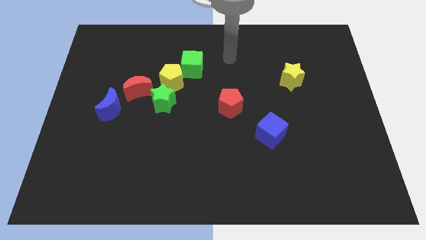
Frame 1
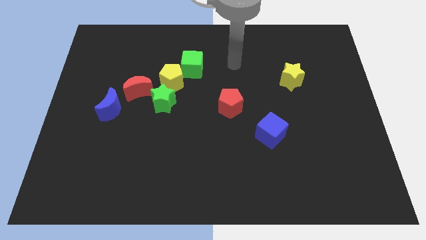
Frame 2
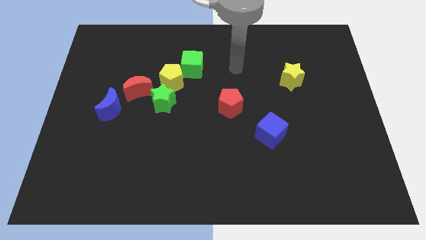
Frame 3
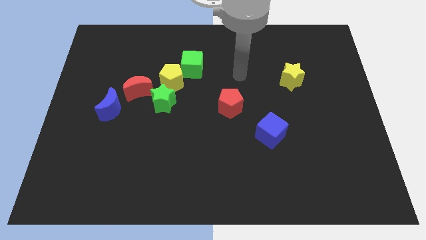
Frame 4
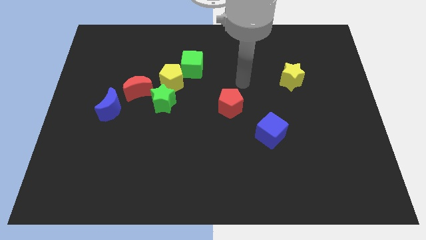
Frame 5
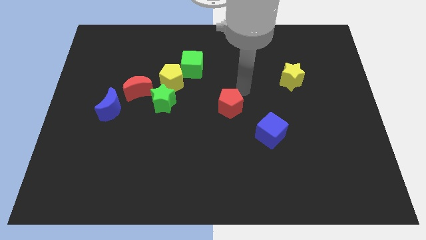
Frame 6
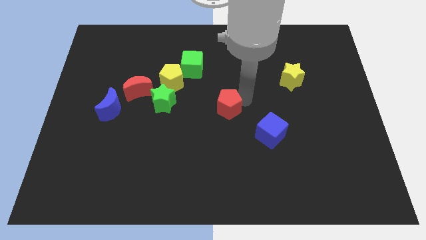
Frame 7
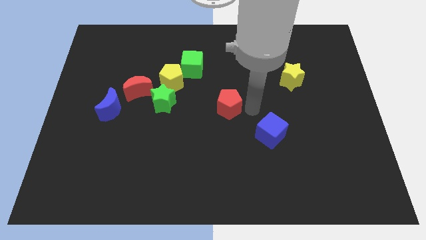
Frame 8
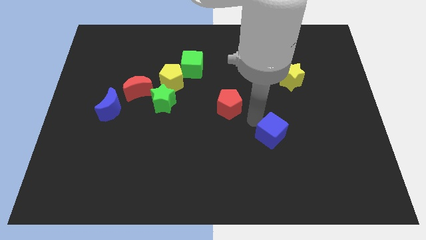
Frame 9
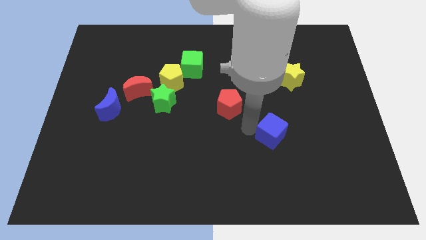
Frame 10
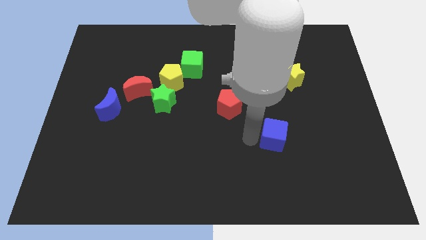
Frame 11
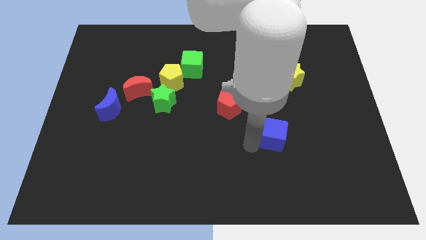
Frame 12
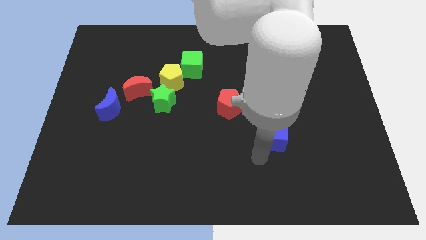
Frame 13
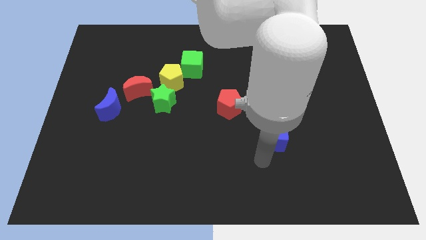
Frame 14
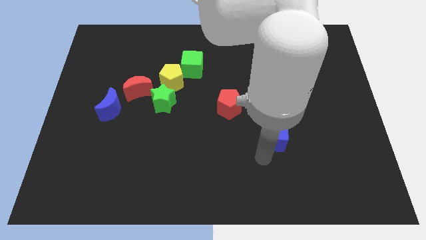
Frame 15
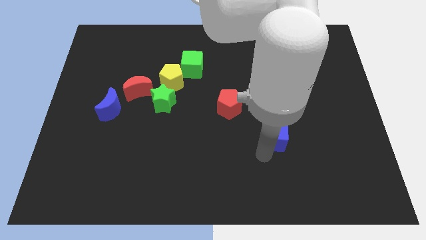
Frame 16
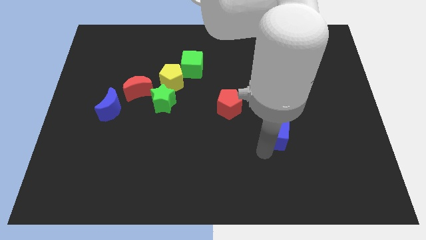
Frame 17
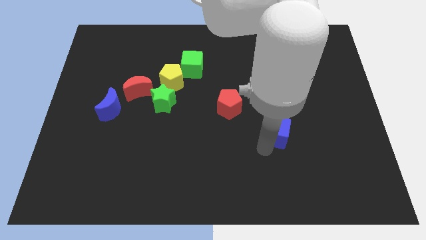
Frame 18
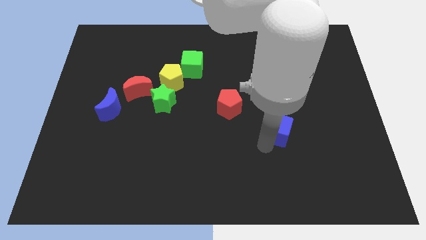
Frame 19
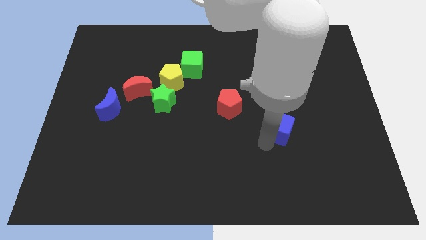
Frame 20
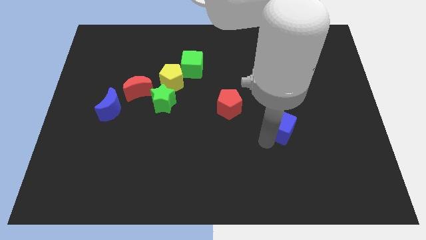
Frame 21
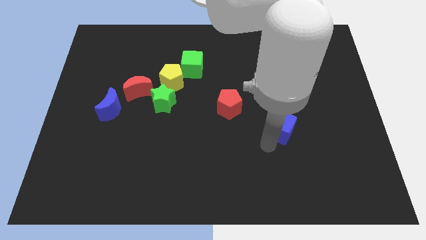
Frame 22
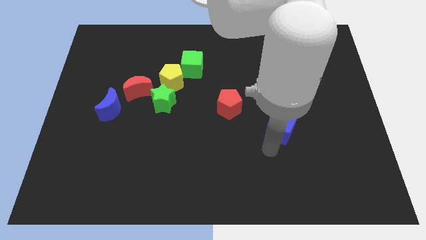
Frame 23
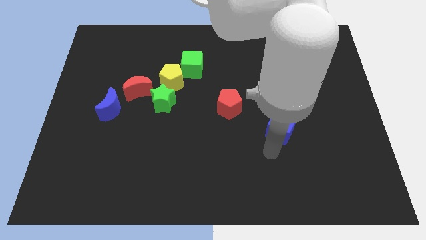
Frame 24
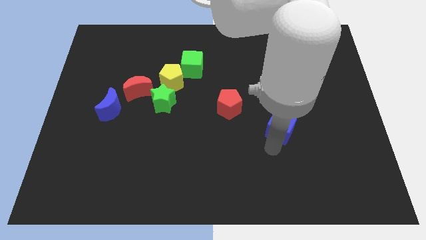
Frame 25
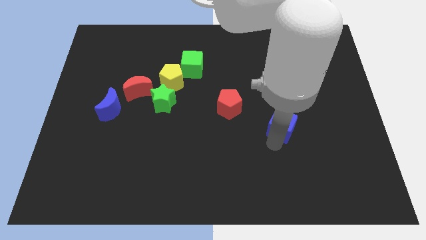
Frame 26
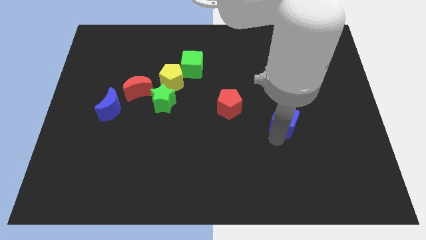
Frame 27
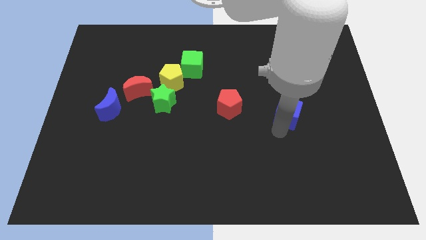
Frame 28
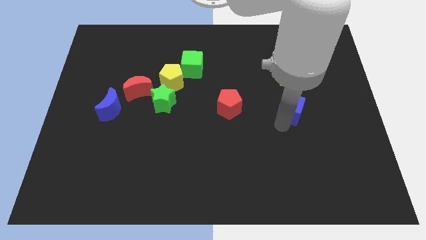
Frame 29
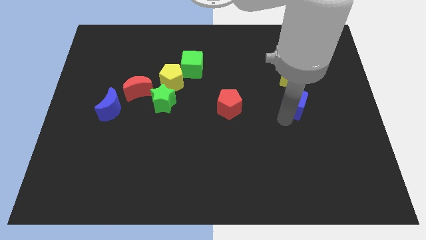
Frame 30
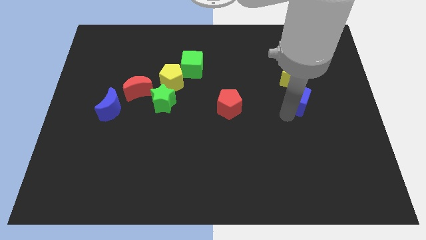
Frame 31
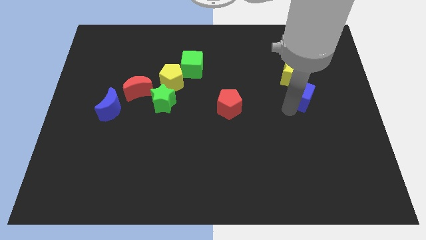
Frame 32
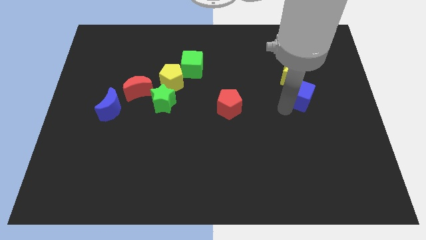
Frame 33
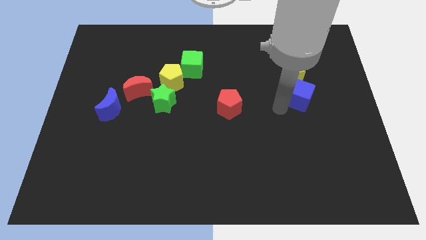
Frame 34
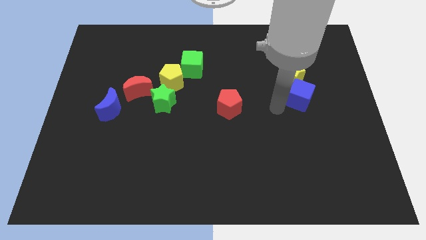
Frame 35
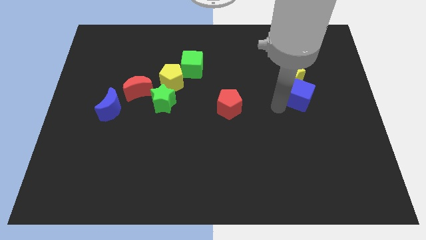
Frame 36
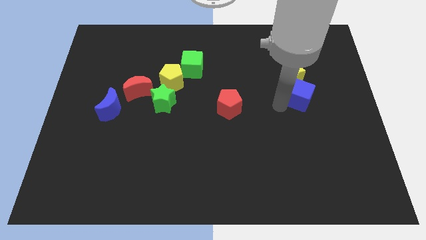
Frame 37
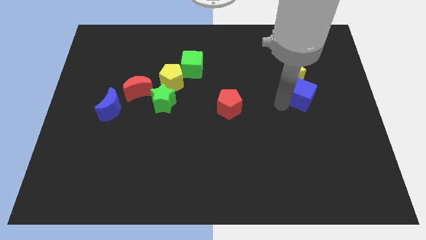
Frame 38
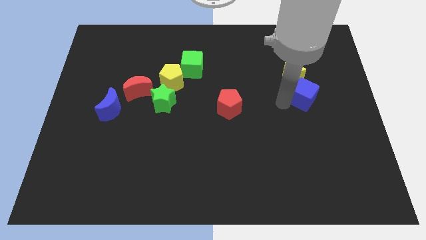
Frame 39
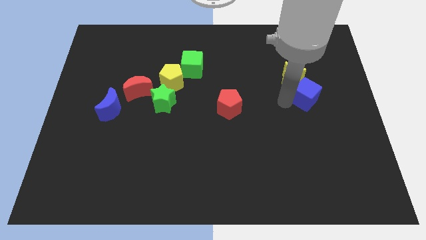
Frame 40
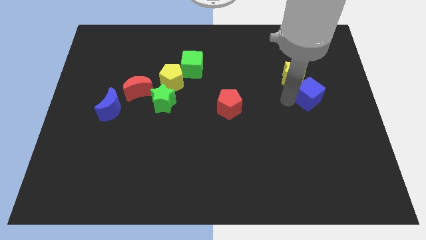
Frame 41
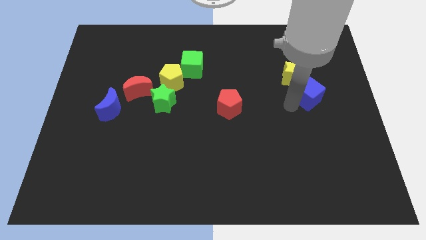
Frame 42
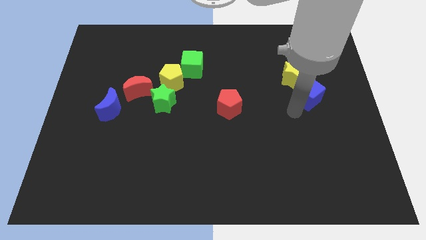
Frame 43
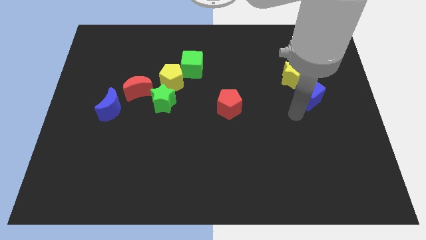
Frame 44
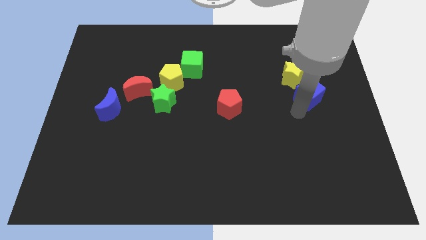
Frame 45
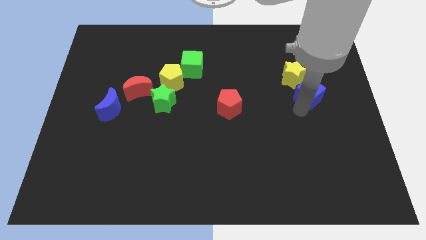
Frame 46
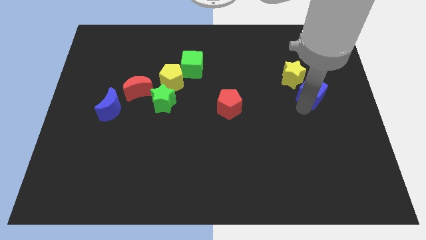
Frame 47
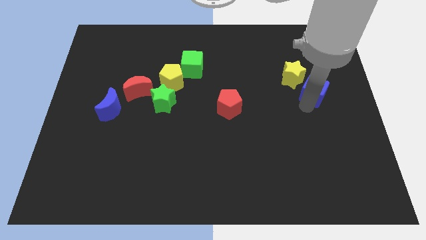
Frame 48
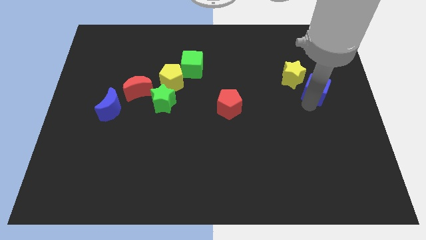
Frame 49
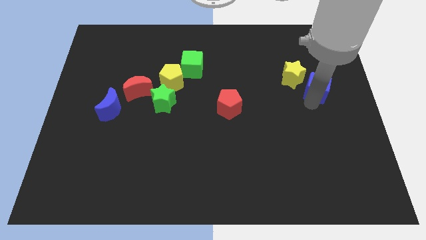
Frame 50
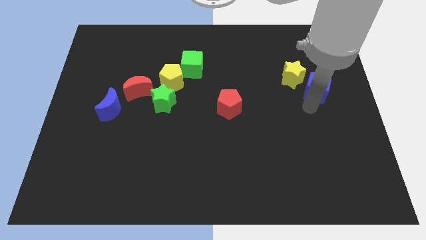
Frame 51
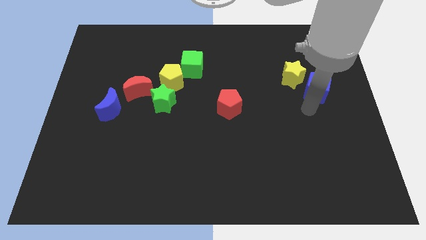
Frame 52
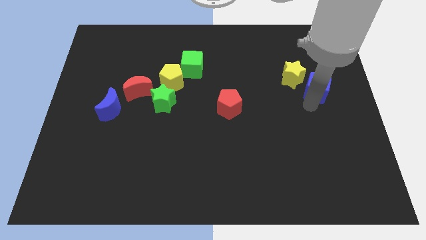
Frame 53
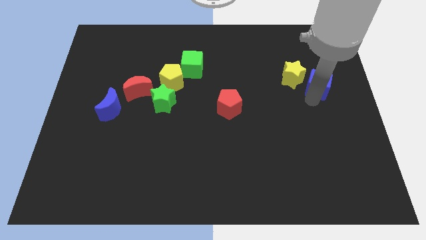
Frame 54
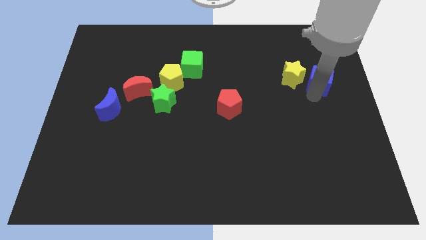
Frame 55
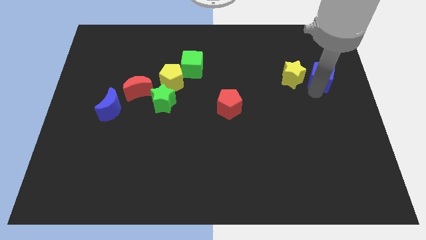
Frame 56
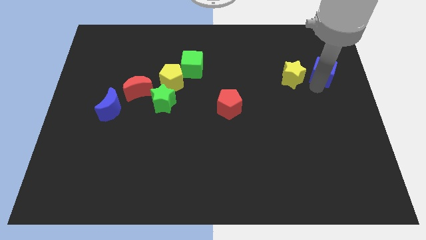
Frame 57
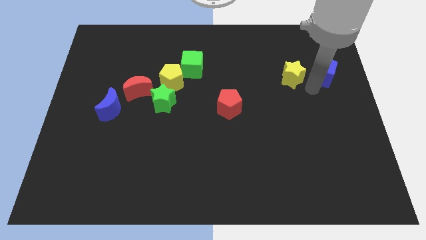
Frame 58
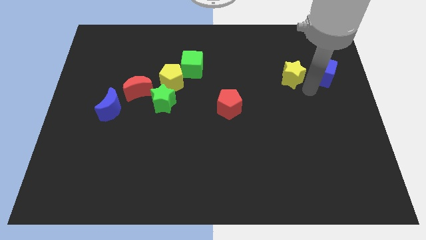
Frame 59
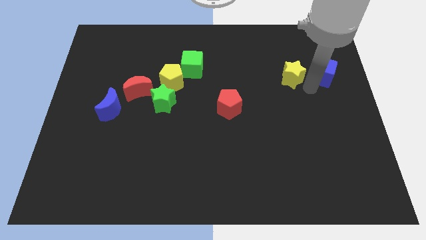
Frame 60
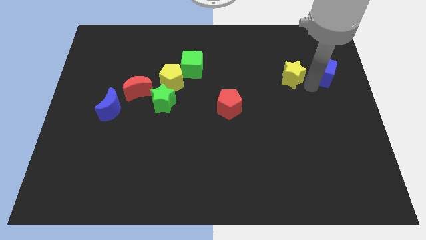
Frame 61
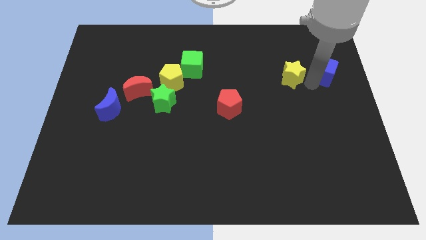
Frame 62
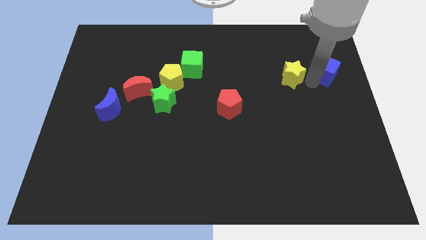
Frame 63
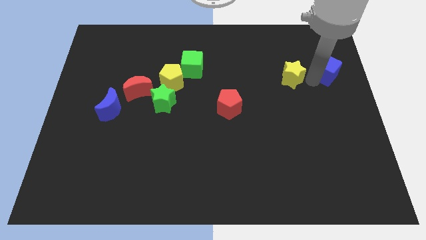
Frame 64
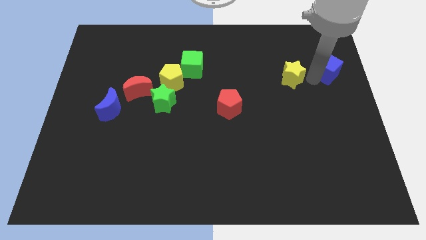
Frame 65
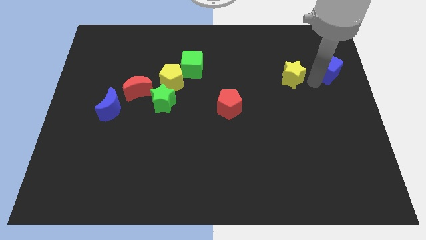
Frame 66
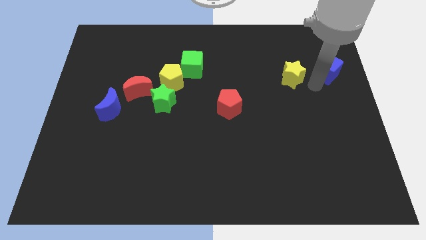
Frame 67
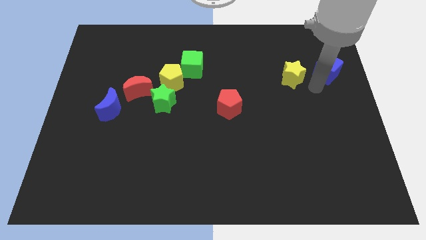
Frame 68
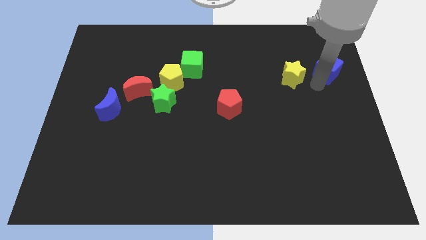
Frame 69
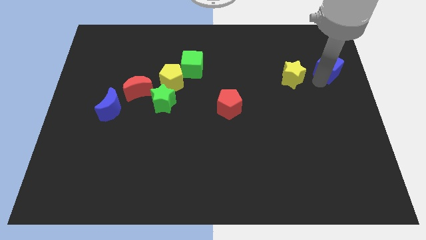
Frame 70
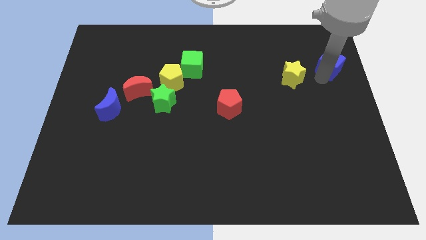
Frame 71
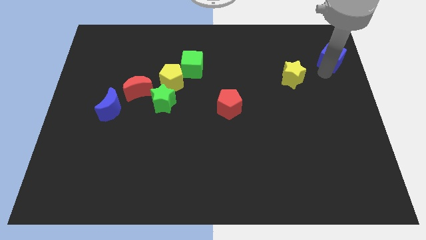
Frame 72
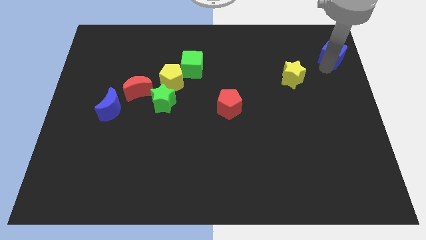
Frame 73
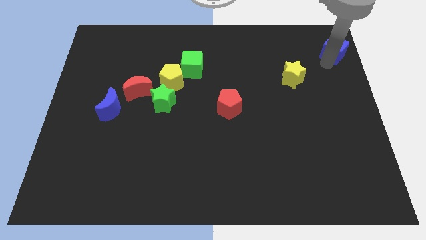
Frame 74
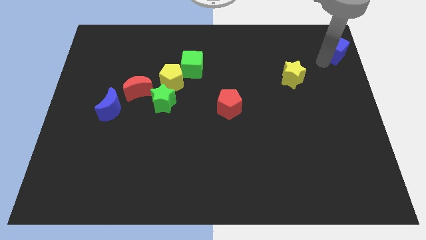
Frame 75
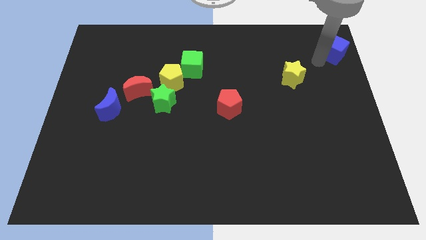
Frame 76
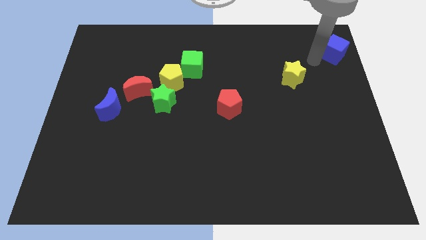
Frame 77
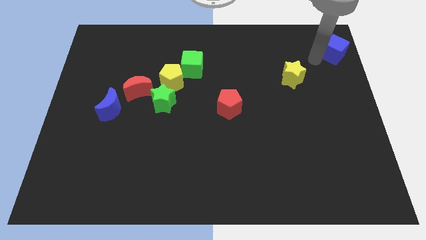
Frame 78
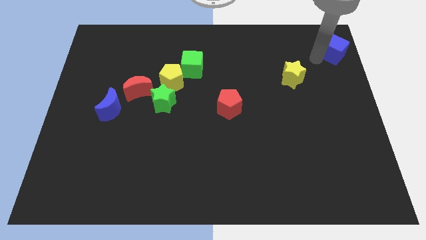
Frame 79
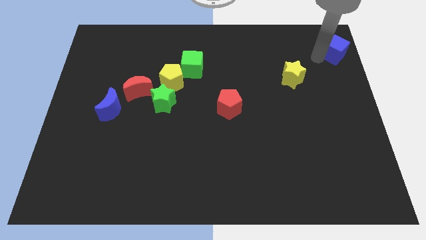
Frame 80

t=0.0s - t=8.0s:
slide the blue cube to the top right of the board
